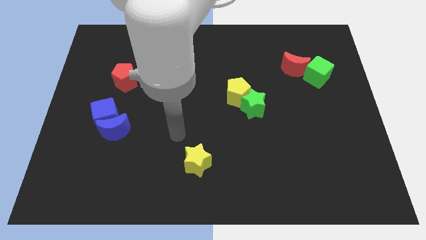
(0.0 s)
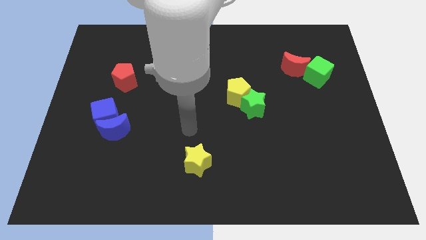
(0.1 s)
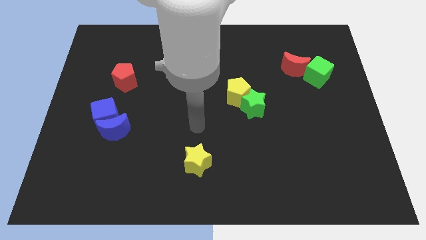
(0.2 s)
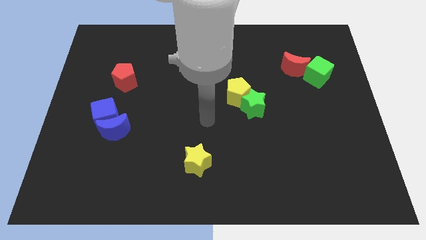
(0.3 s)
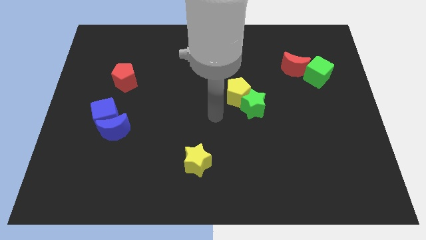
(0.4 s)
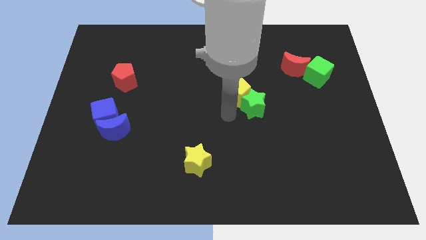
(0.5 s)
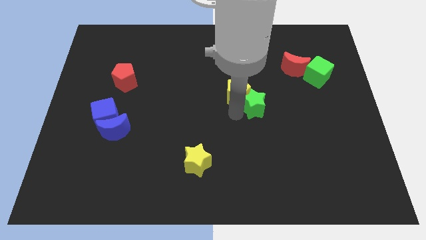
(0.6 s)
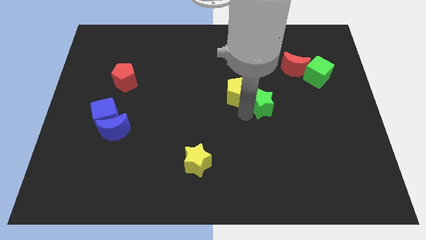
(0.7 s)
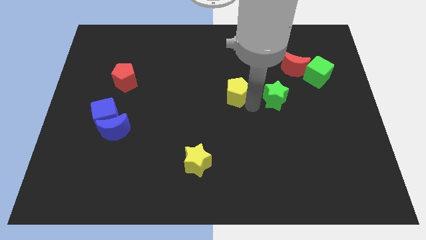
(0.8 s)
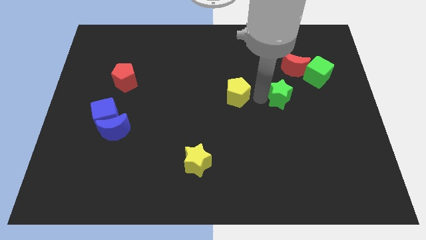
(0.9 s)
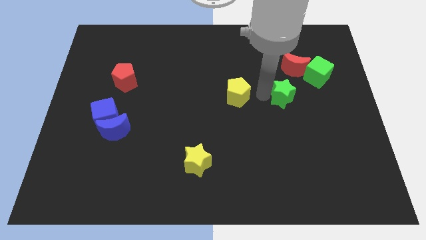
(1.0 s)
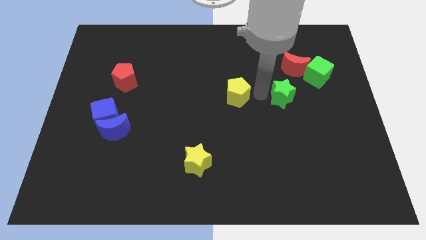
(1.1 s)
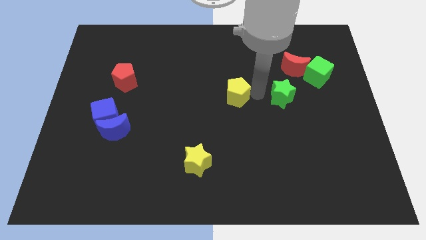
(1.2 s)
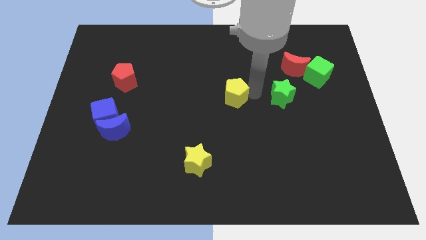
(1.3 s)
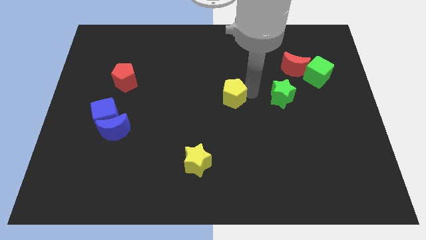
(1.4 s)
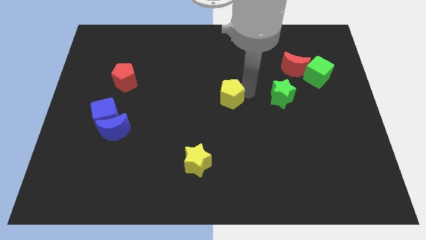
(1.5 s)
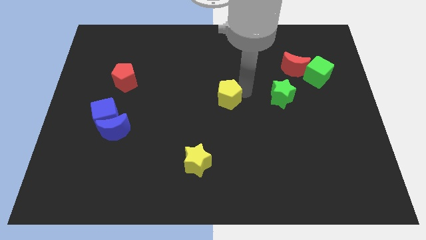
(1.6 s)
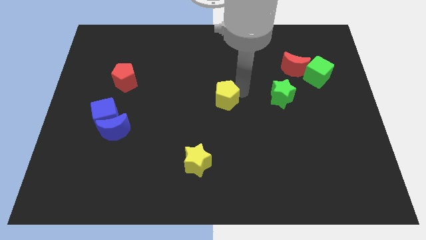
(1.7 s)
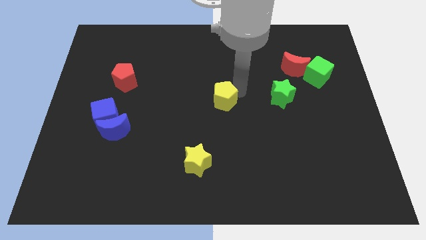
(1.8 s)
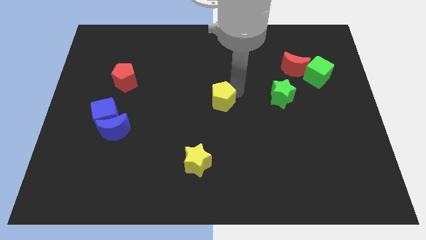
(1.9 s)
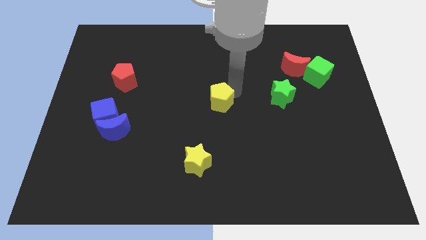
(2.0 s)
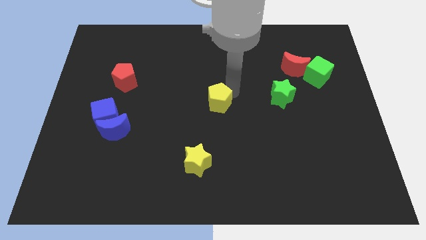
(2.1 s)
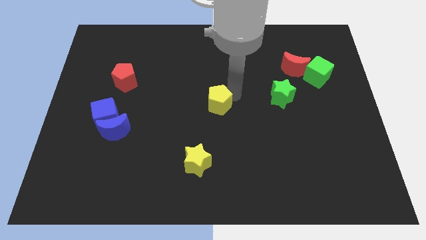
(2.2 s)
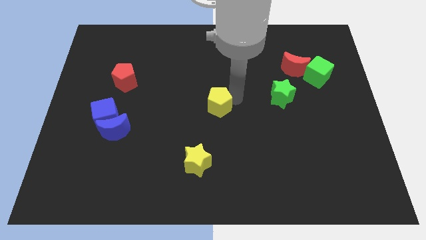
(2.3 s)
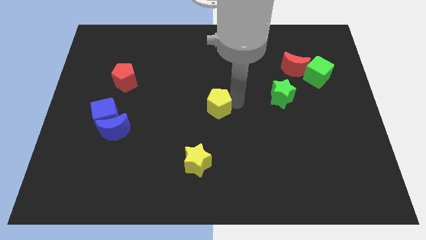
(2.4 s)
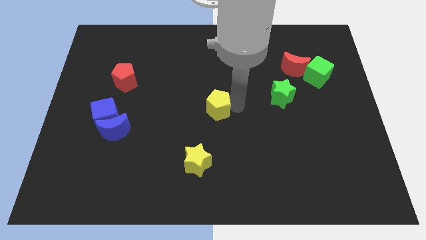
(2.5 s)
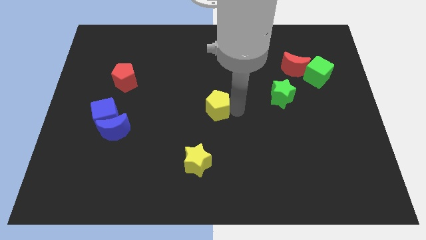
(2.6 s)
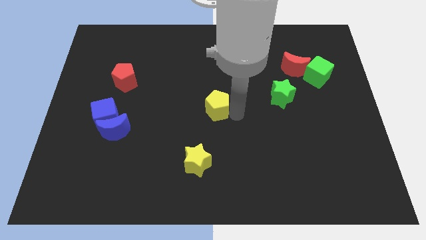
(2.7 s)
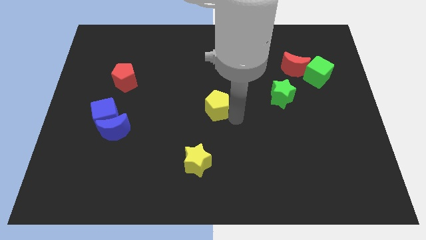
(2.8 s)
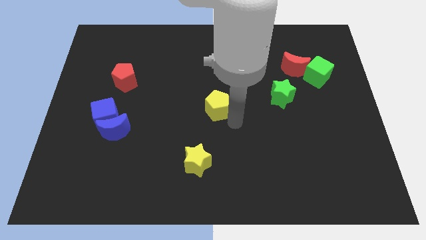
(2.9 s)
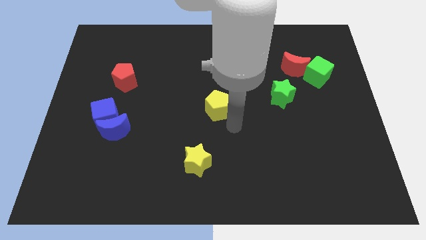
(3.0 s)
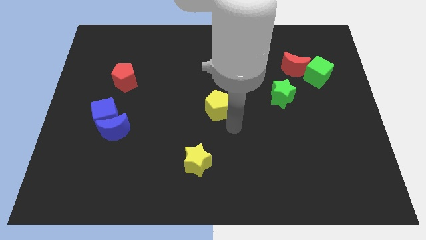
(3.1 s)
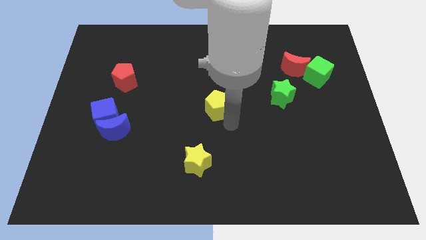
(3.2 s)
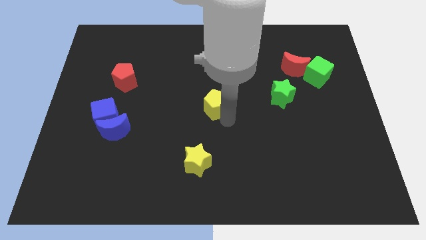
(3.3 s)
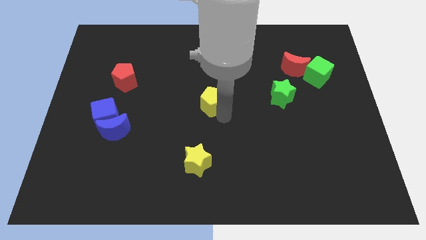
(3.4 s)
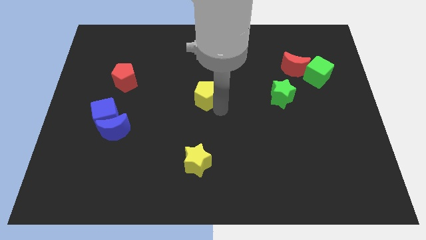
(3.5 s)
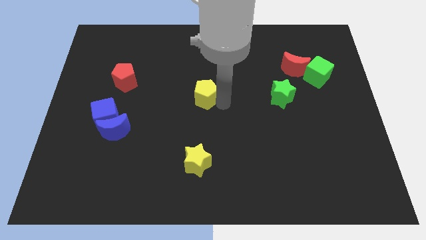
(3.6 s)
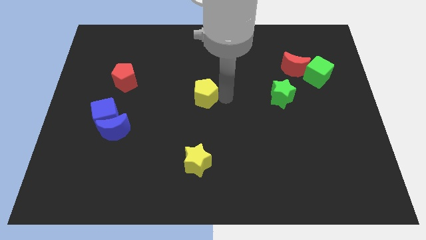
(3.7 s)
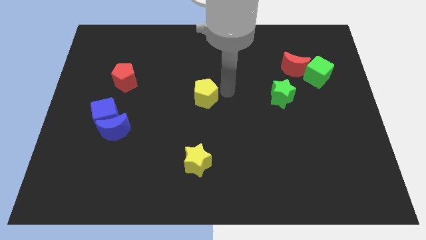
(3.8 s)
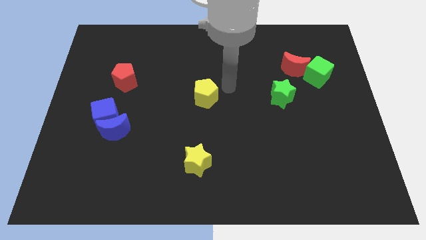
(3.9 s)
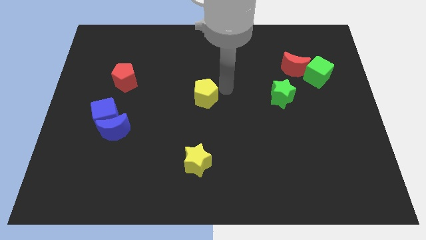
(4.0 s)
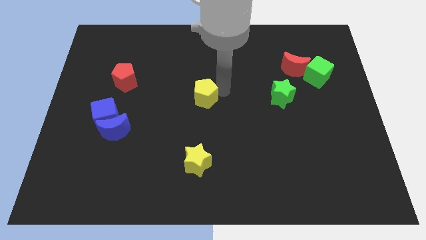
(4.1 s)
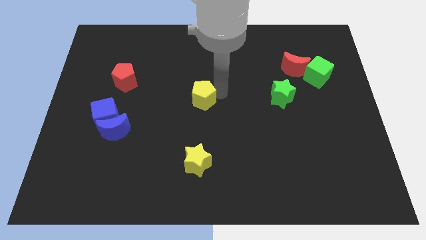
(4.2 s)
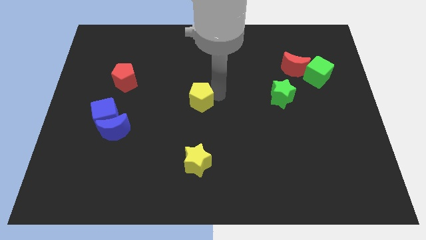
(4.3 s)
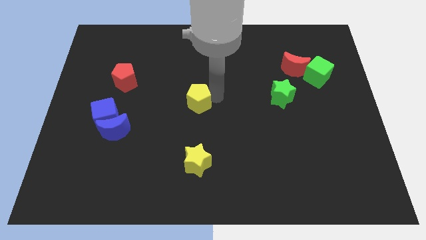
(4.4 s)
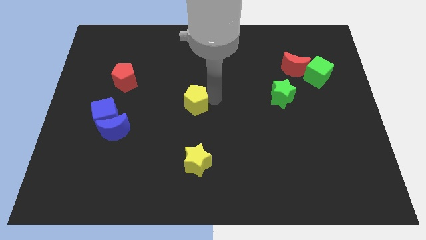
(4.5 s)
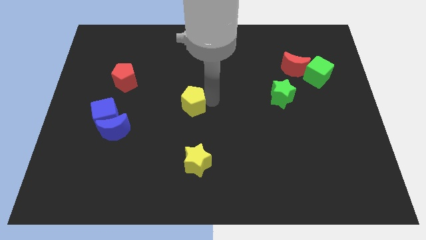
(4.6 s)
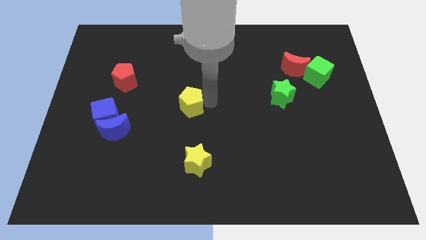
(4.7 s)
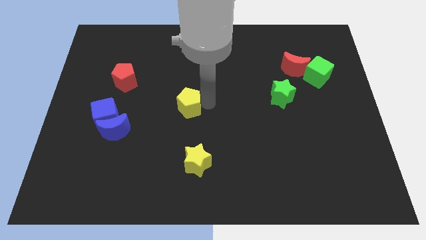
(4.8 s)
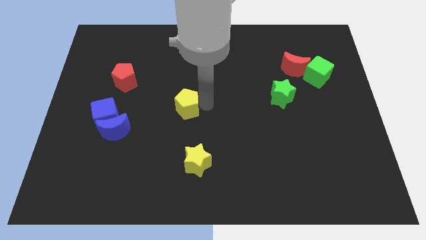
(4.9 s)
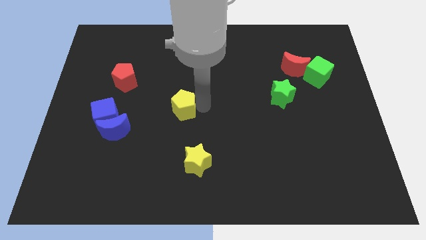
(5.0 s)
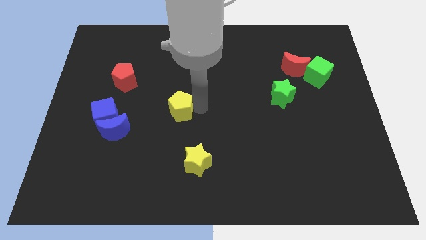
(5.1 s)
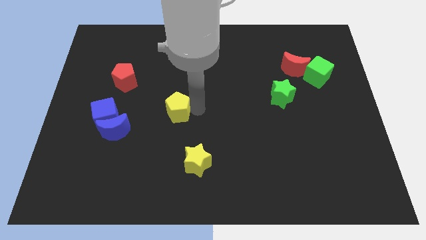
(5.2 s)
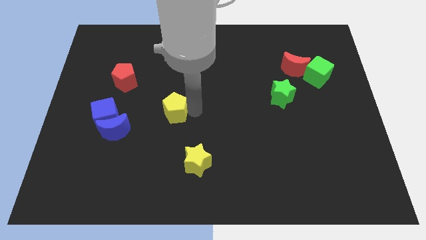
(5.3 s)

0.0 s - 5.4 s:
push the yellow pentagon to the right side of the blue cube
